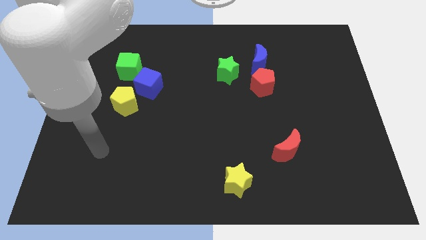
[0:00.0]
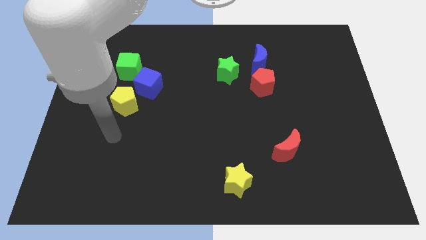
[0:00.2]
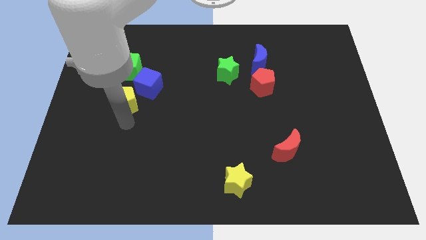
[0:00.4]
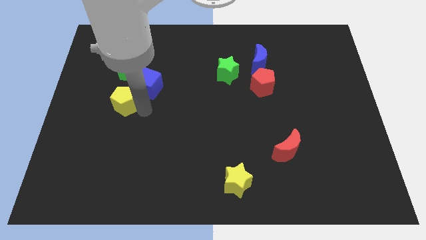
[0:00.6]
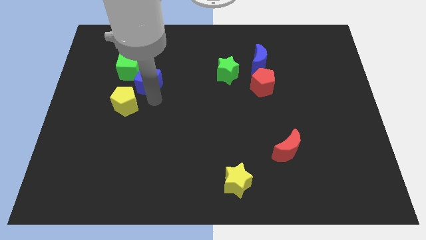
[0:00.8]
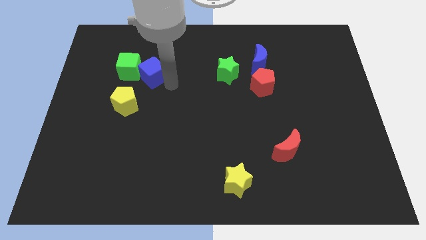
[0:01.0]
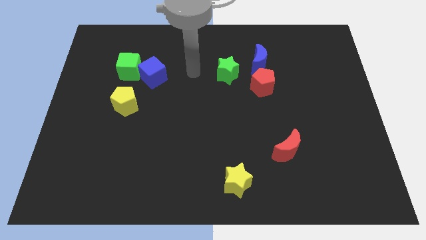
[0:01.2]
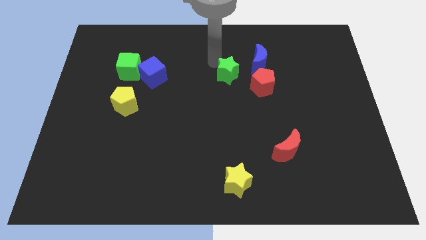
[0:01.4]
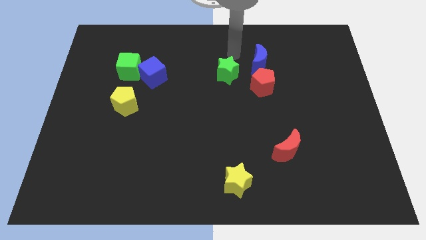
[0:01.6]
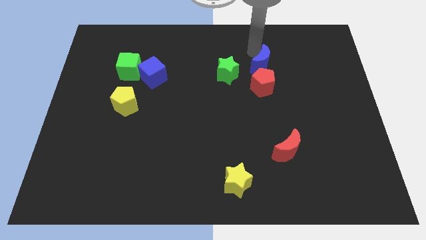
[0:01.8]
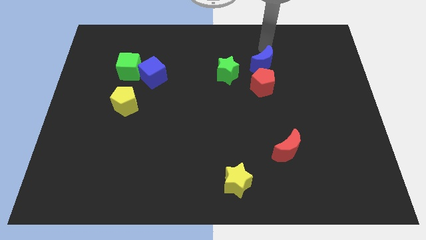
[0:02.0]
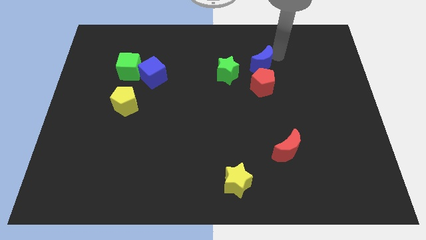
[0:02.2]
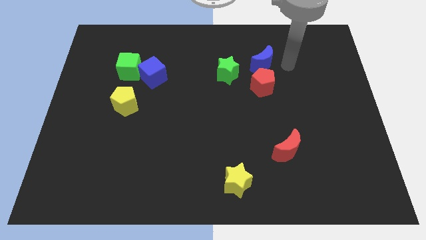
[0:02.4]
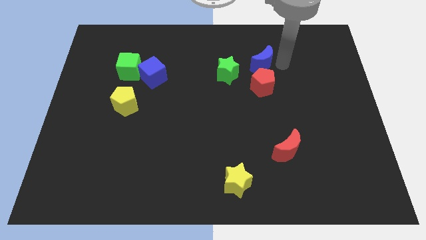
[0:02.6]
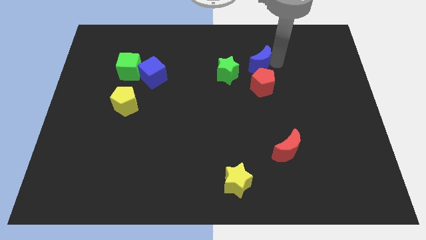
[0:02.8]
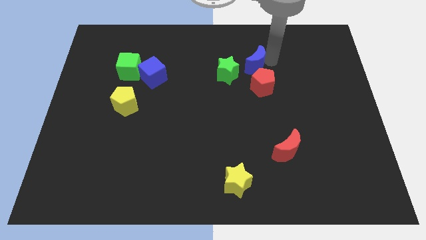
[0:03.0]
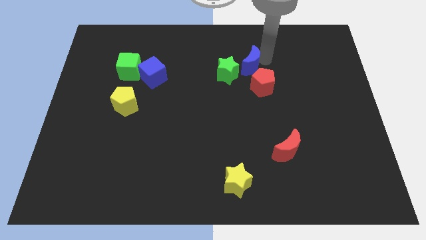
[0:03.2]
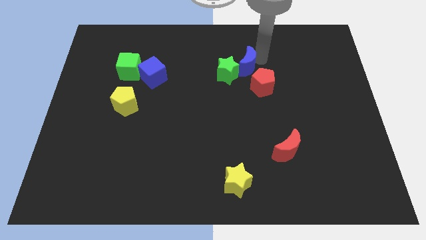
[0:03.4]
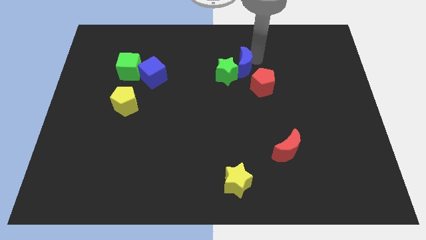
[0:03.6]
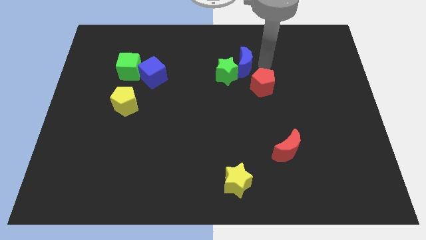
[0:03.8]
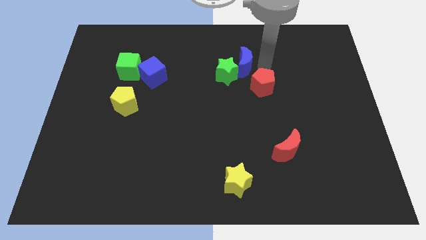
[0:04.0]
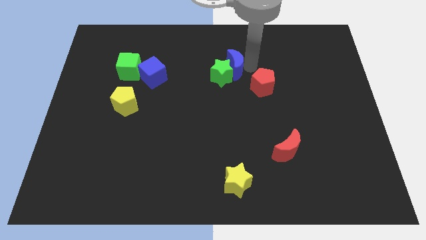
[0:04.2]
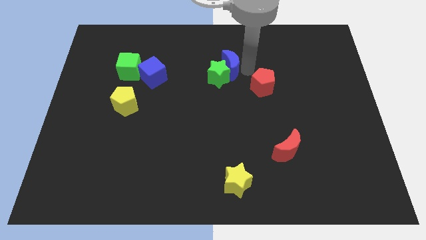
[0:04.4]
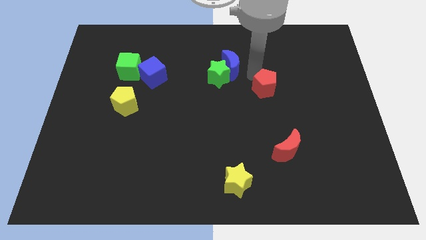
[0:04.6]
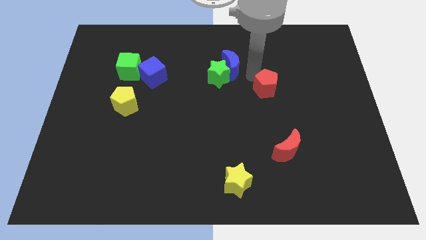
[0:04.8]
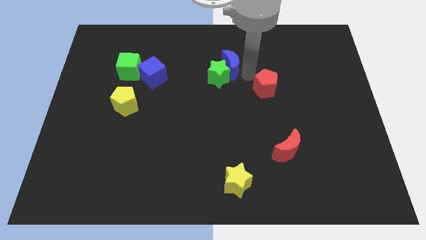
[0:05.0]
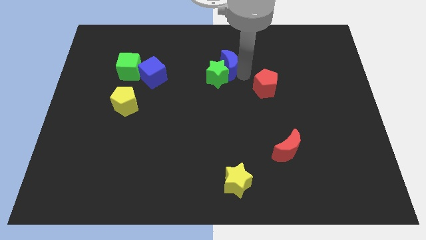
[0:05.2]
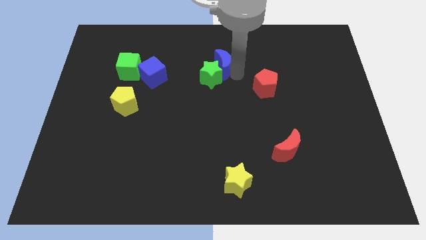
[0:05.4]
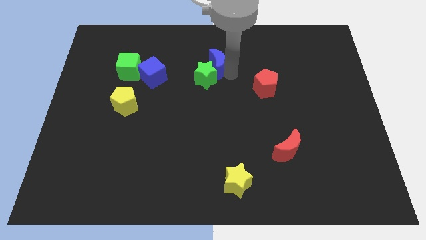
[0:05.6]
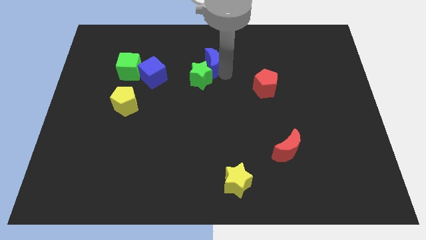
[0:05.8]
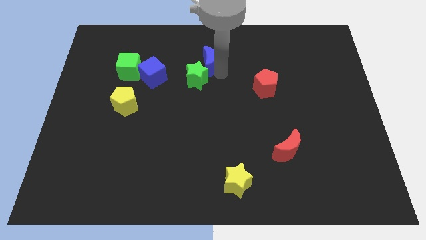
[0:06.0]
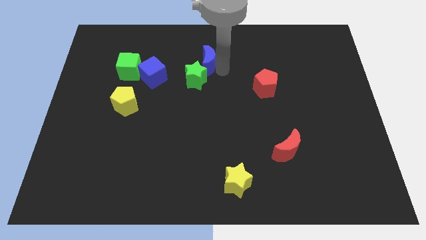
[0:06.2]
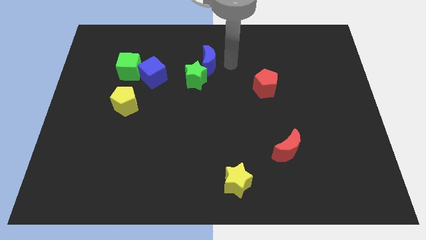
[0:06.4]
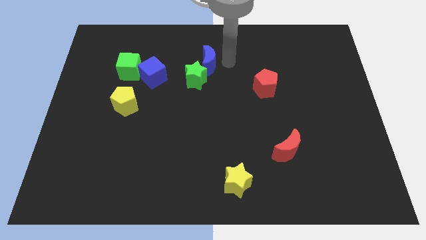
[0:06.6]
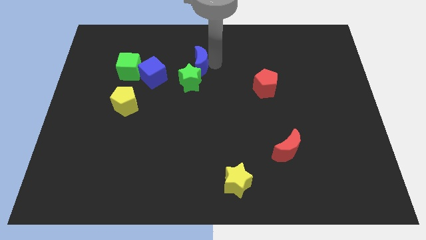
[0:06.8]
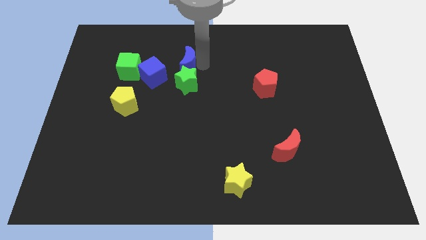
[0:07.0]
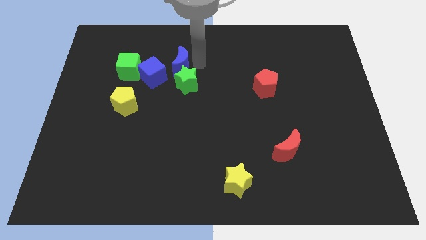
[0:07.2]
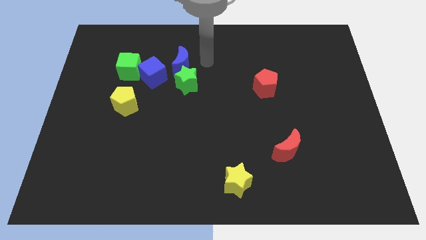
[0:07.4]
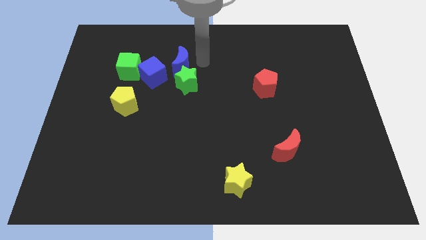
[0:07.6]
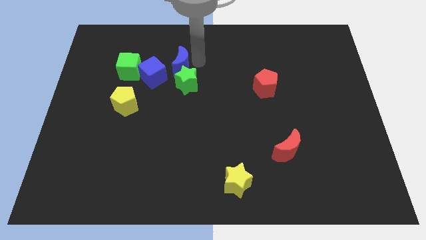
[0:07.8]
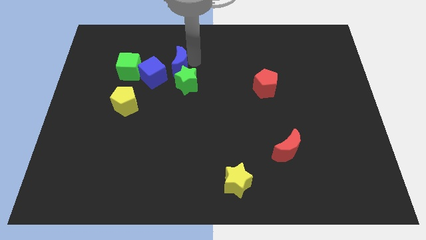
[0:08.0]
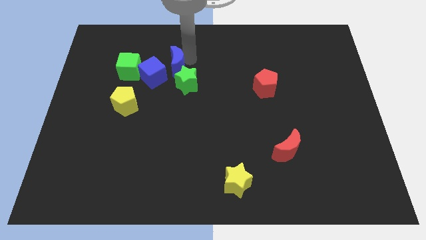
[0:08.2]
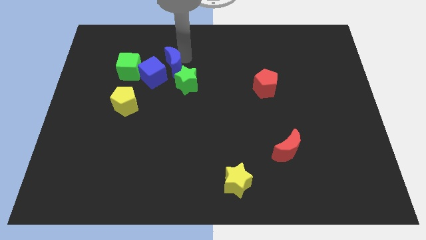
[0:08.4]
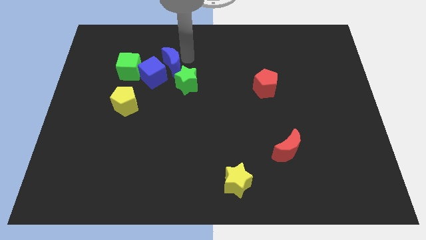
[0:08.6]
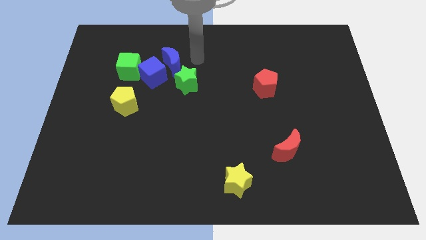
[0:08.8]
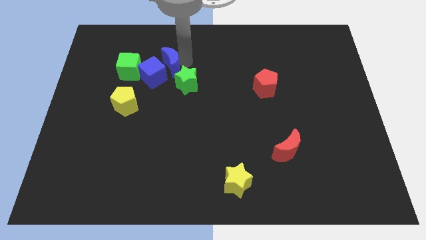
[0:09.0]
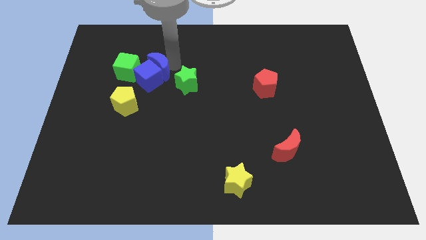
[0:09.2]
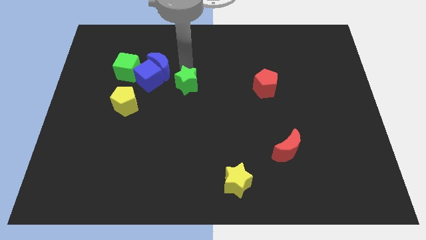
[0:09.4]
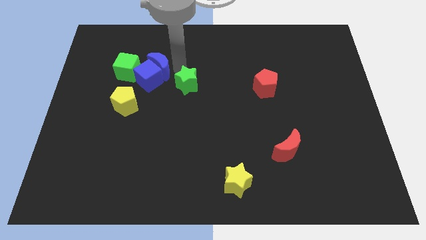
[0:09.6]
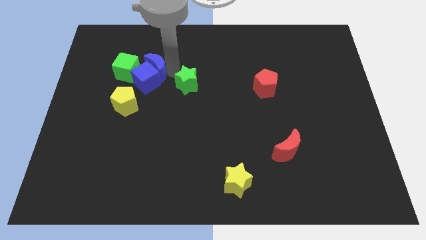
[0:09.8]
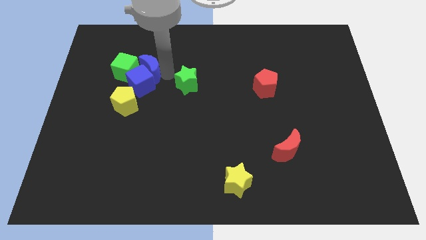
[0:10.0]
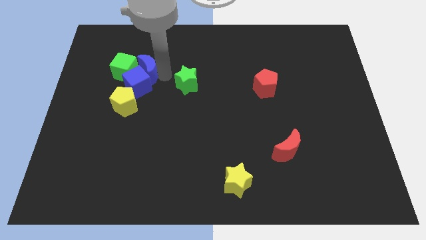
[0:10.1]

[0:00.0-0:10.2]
push the blue moon towards the green cube

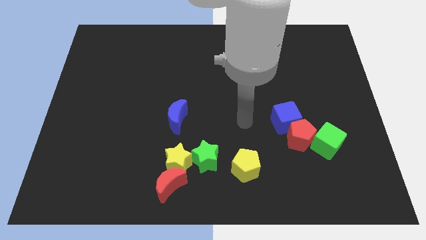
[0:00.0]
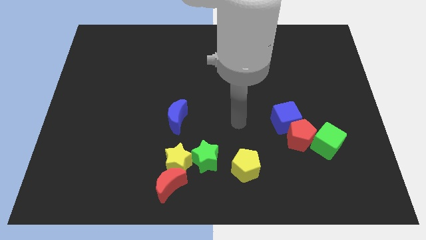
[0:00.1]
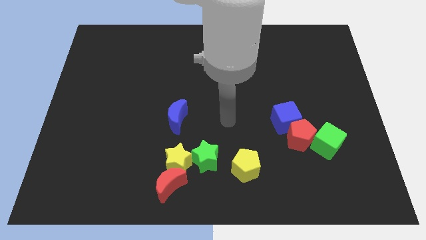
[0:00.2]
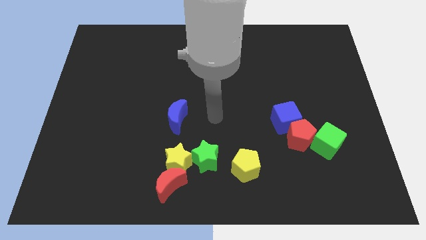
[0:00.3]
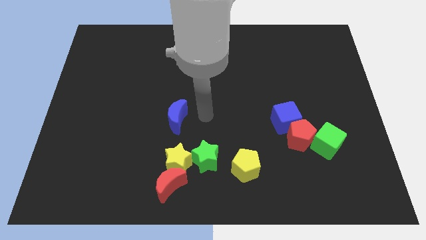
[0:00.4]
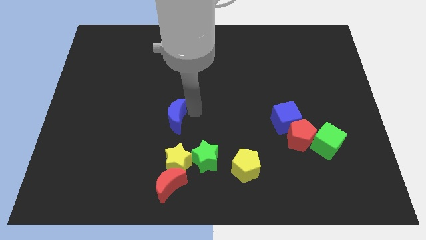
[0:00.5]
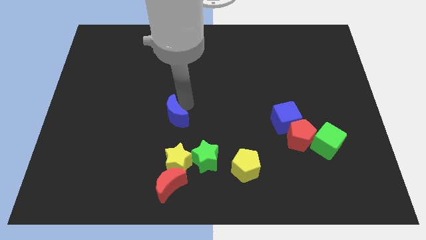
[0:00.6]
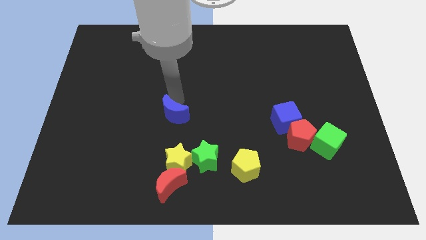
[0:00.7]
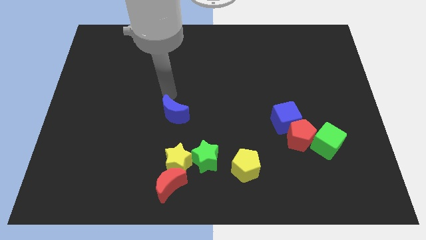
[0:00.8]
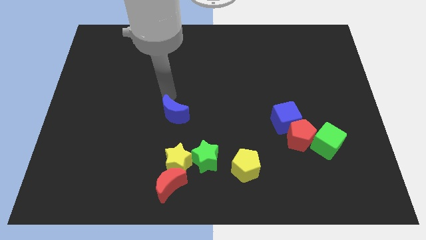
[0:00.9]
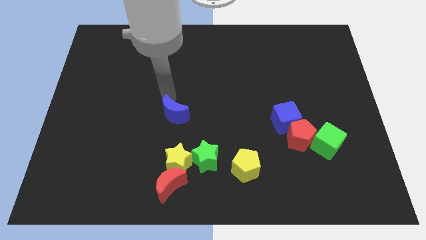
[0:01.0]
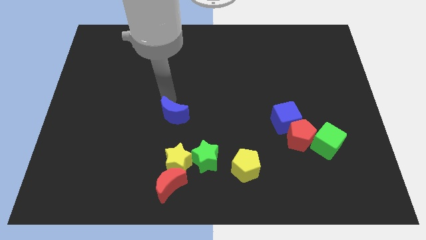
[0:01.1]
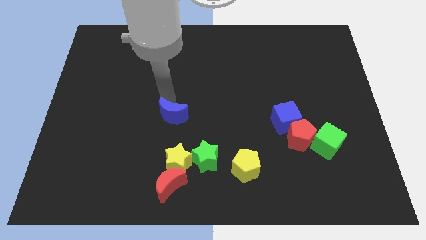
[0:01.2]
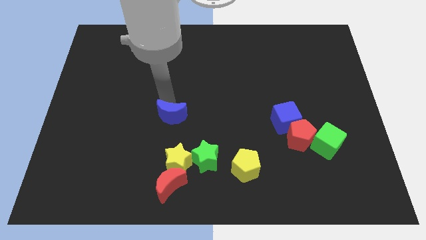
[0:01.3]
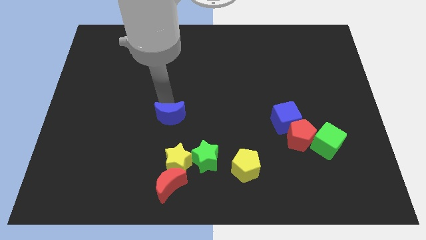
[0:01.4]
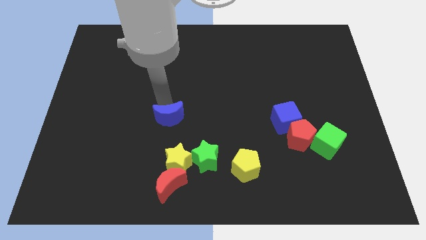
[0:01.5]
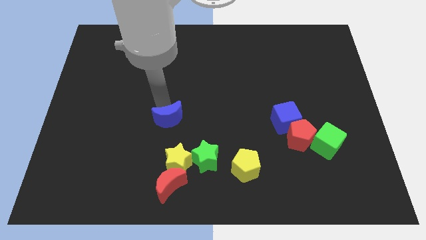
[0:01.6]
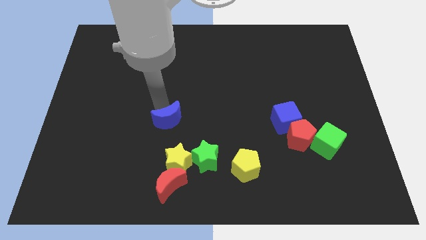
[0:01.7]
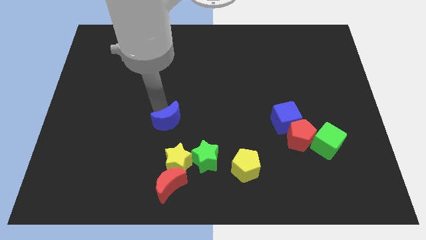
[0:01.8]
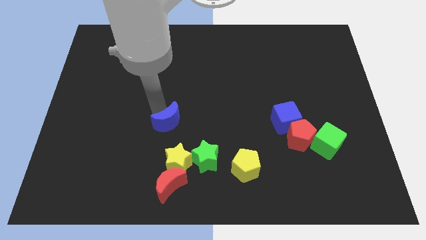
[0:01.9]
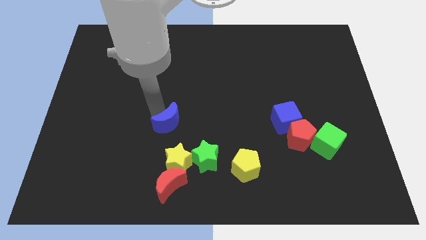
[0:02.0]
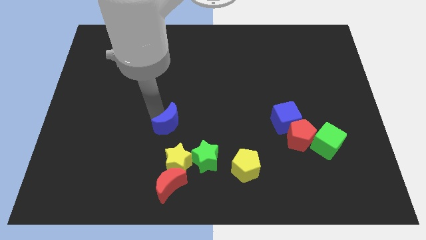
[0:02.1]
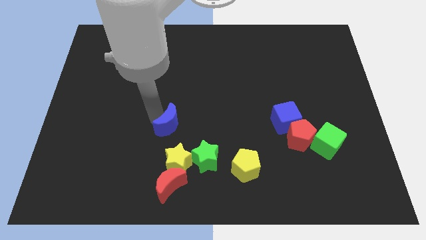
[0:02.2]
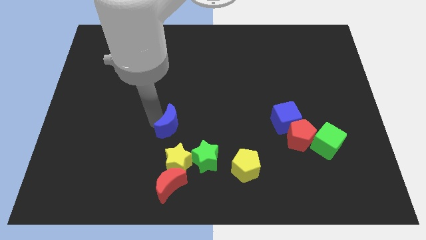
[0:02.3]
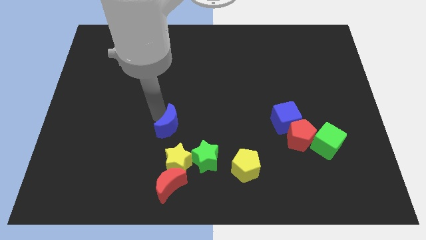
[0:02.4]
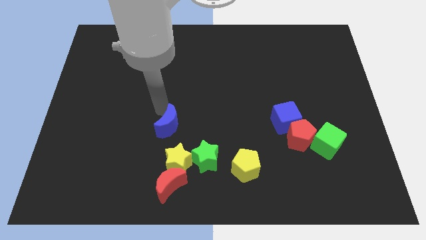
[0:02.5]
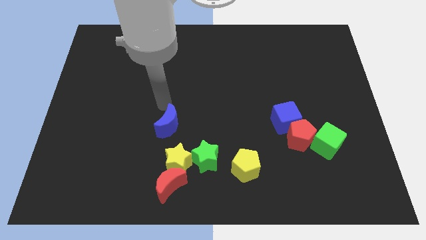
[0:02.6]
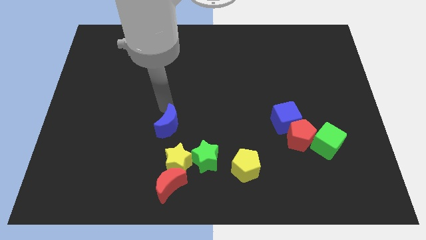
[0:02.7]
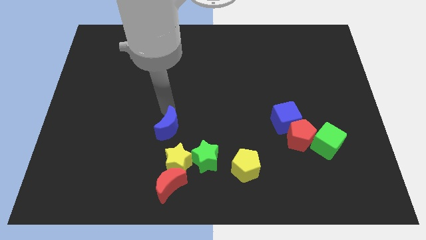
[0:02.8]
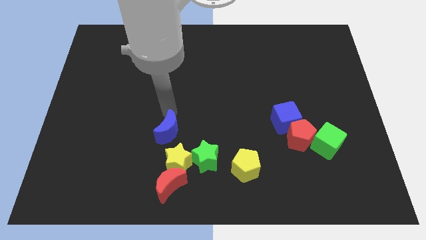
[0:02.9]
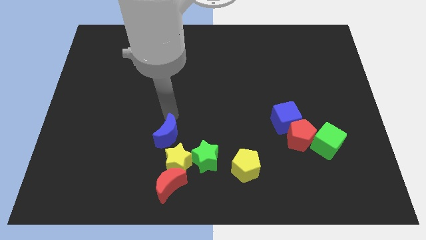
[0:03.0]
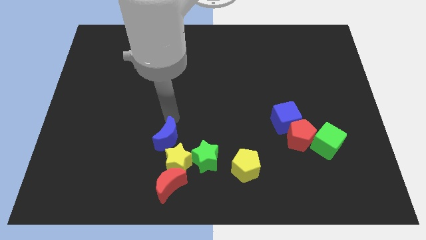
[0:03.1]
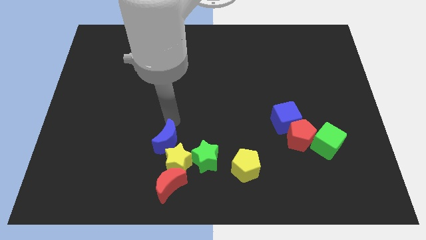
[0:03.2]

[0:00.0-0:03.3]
push the blue moon to the yellow star
